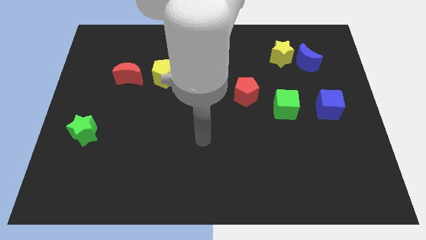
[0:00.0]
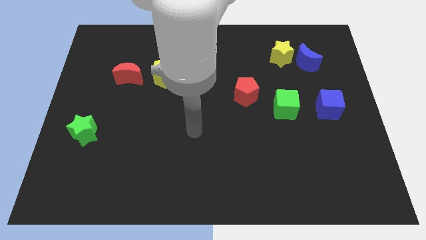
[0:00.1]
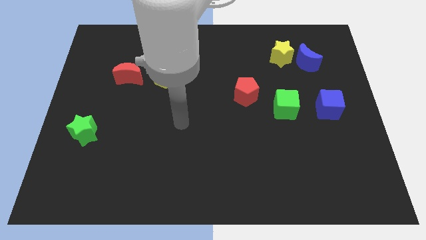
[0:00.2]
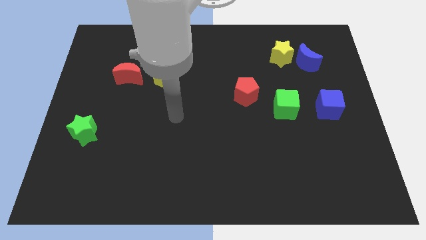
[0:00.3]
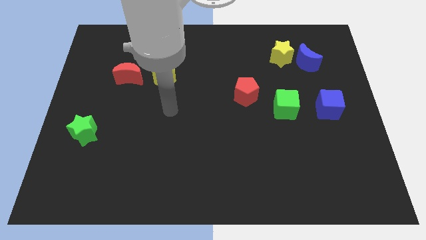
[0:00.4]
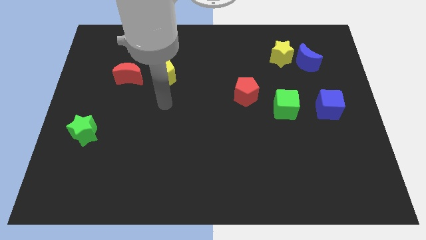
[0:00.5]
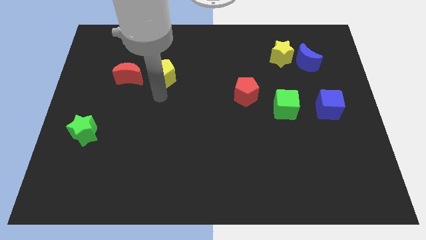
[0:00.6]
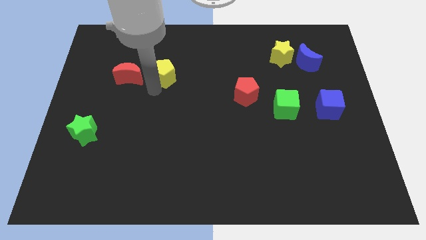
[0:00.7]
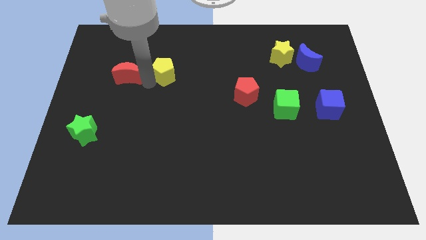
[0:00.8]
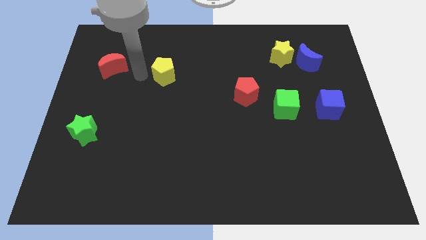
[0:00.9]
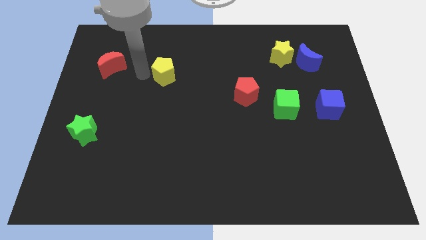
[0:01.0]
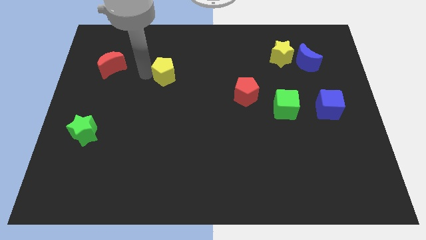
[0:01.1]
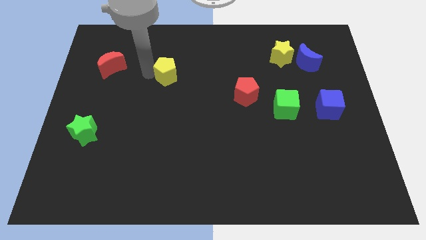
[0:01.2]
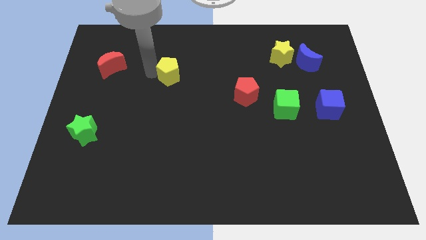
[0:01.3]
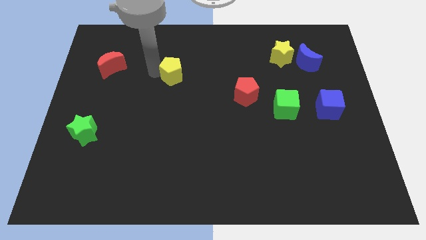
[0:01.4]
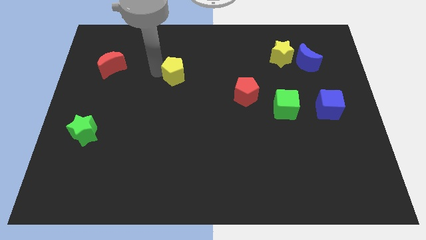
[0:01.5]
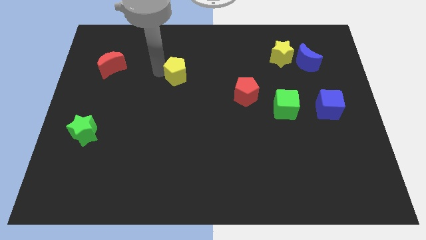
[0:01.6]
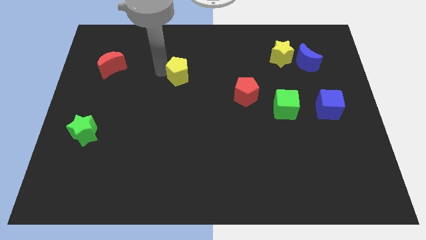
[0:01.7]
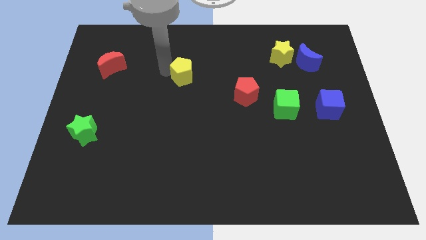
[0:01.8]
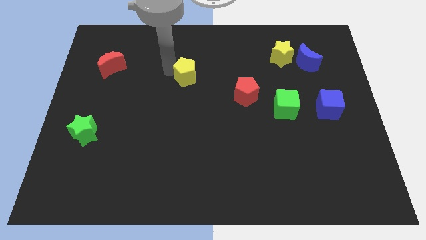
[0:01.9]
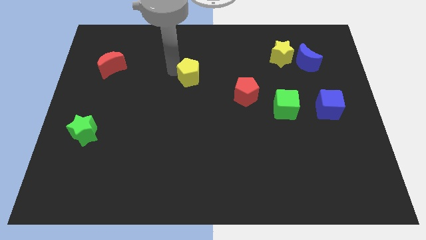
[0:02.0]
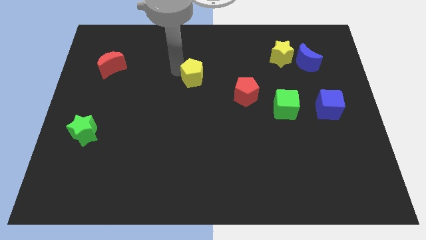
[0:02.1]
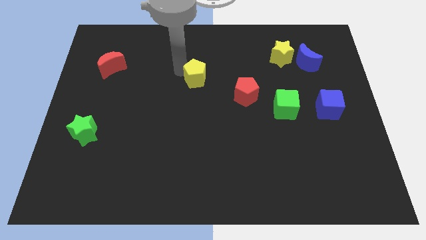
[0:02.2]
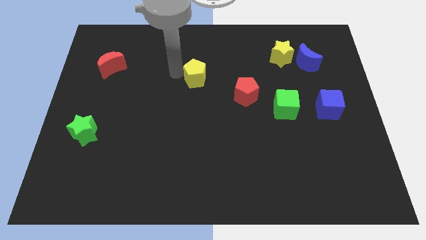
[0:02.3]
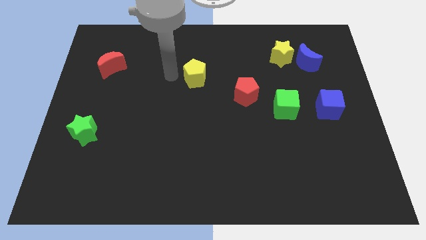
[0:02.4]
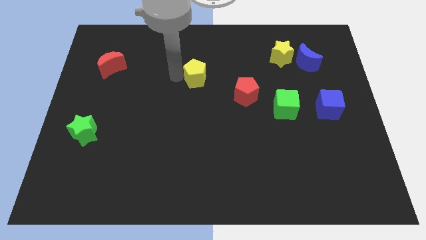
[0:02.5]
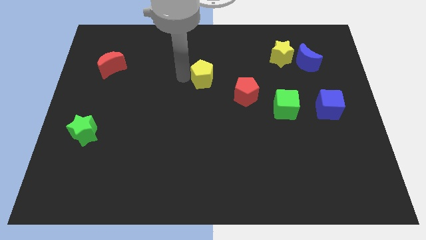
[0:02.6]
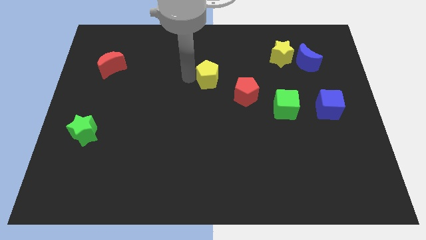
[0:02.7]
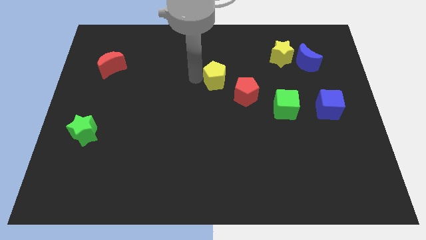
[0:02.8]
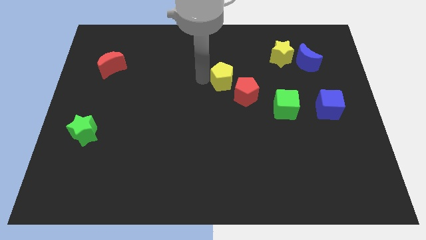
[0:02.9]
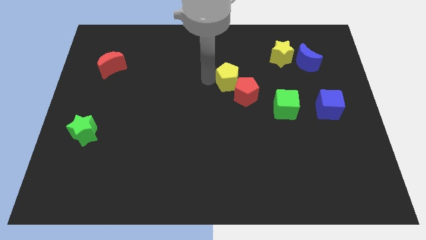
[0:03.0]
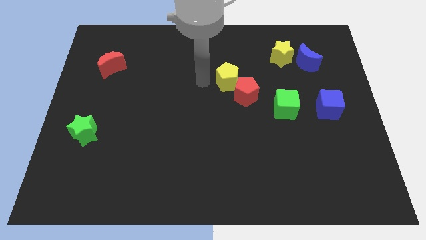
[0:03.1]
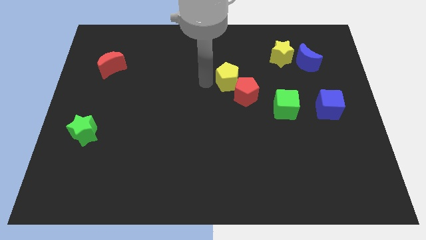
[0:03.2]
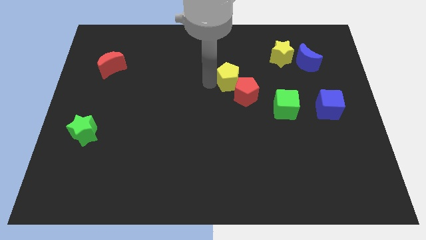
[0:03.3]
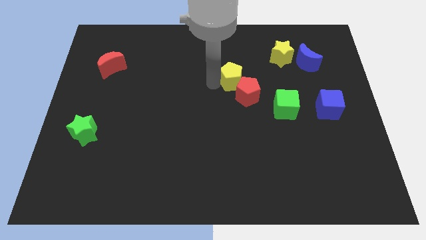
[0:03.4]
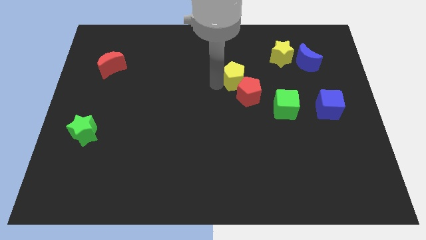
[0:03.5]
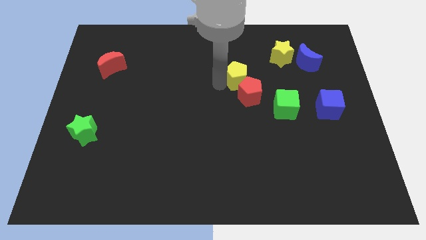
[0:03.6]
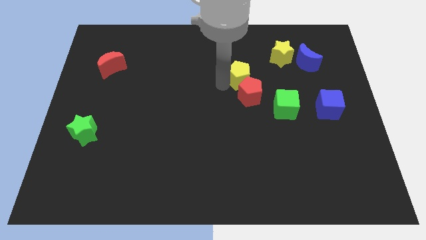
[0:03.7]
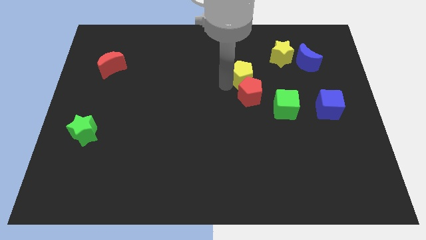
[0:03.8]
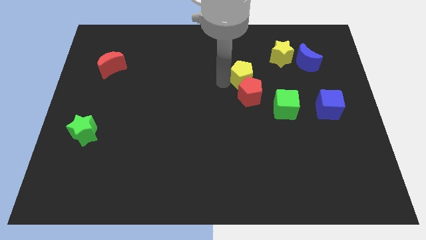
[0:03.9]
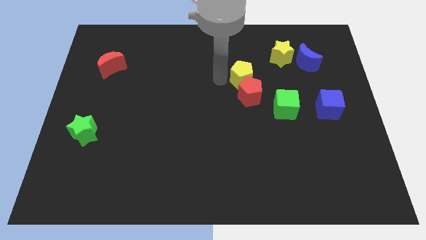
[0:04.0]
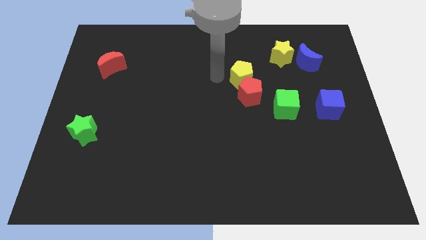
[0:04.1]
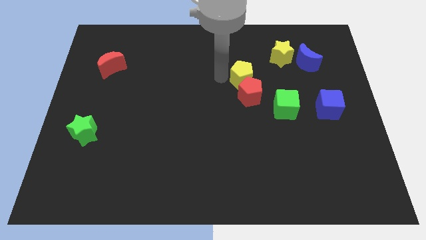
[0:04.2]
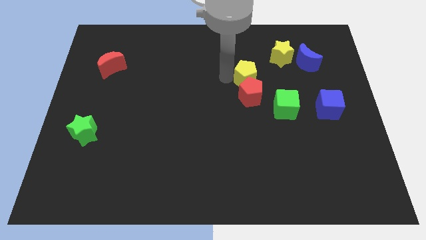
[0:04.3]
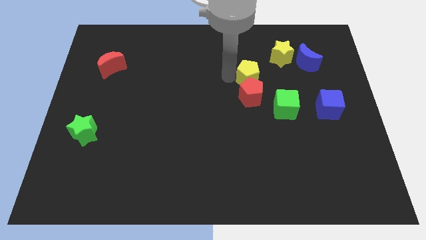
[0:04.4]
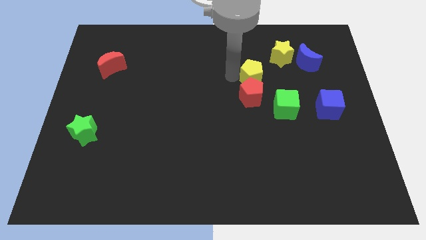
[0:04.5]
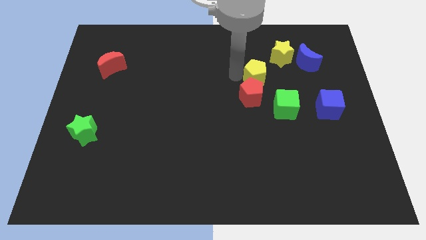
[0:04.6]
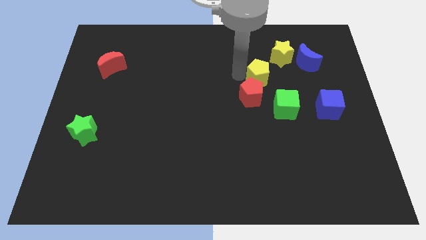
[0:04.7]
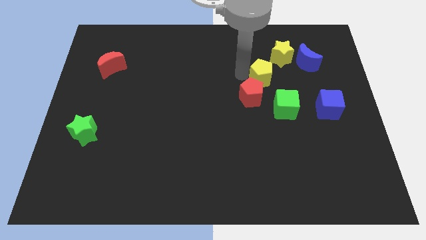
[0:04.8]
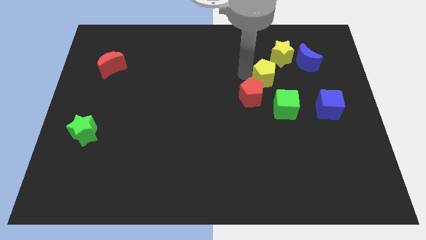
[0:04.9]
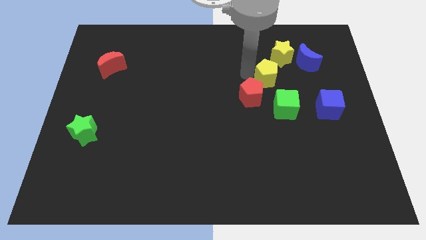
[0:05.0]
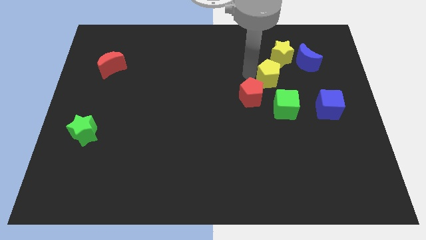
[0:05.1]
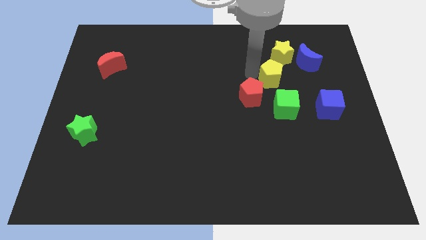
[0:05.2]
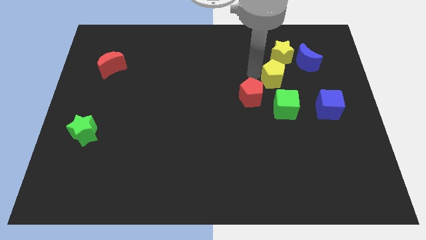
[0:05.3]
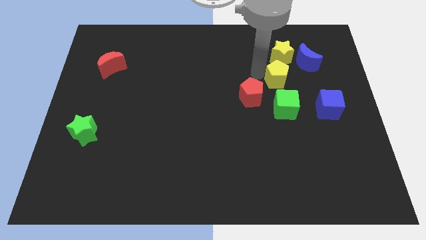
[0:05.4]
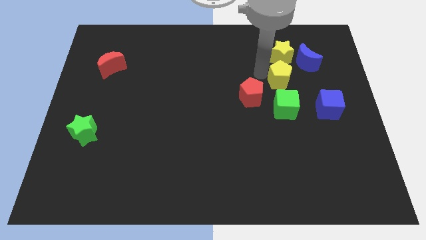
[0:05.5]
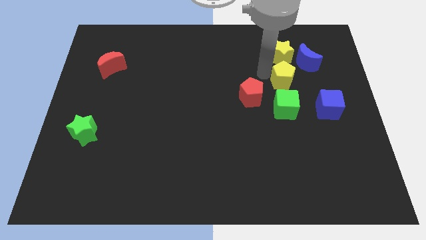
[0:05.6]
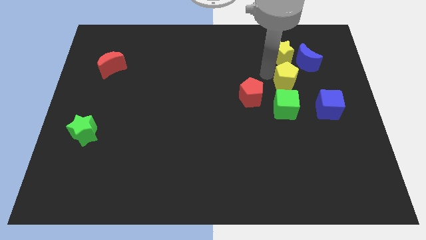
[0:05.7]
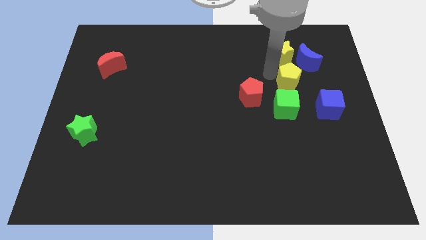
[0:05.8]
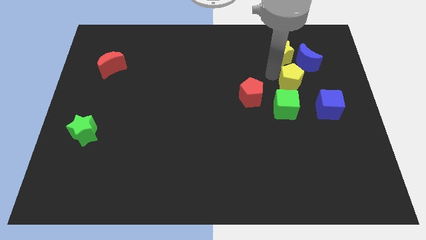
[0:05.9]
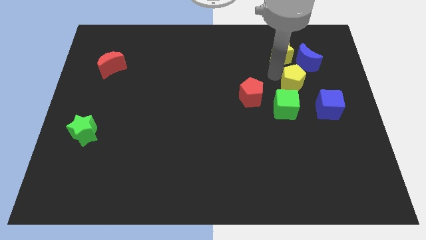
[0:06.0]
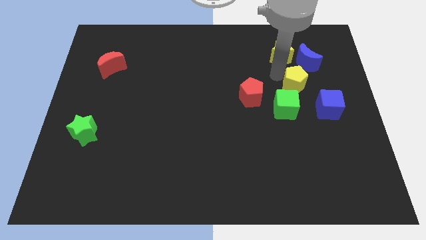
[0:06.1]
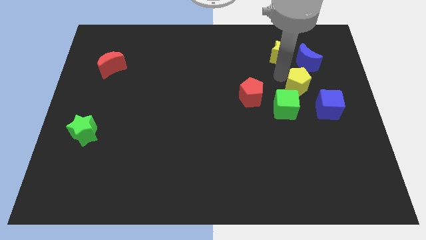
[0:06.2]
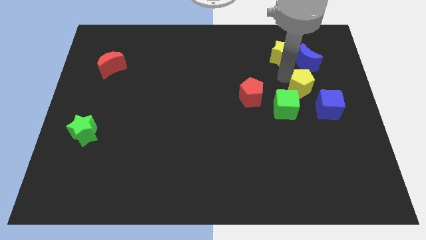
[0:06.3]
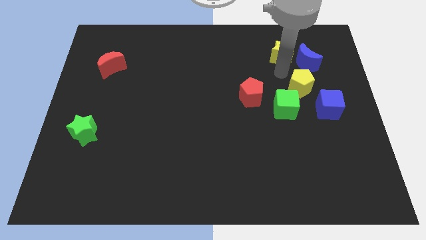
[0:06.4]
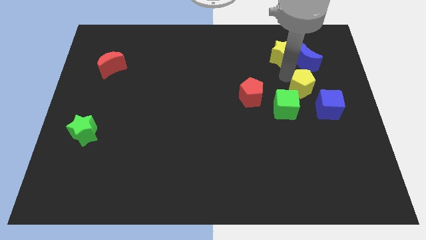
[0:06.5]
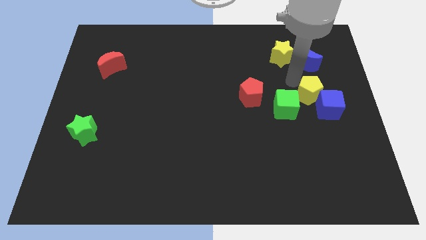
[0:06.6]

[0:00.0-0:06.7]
slide the yellow pentagon next to the blue cube

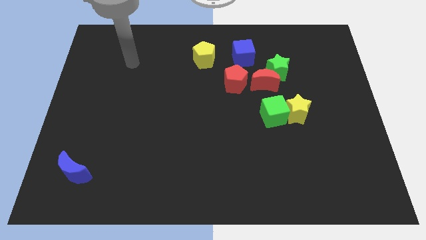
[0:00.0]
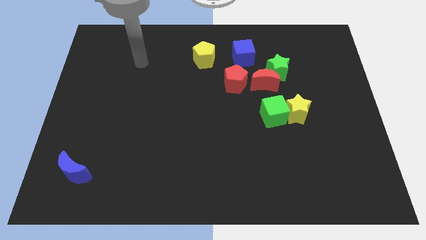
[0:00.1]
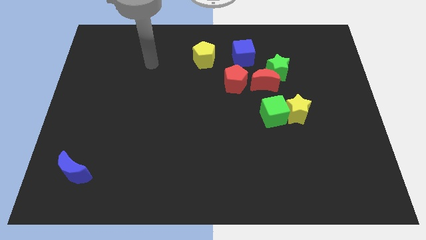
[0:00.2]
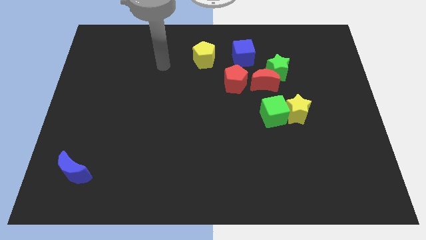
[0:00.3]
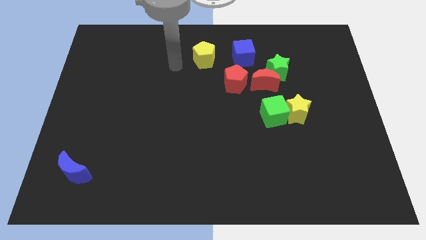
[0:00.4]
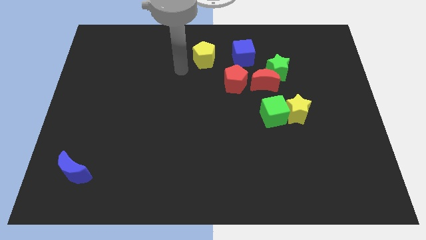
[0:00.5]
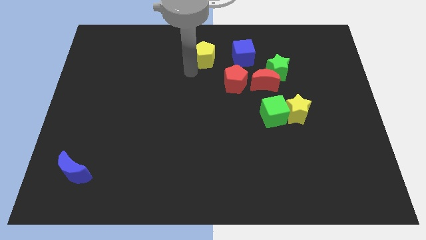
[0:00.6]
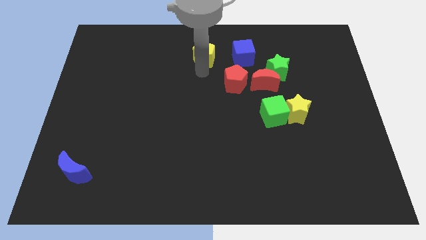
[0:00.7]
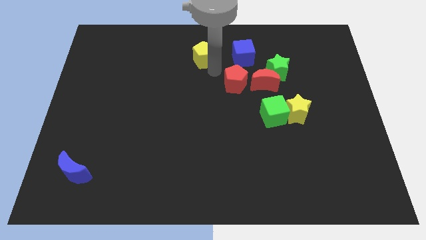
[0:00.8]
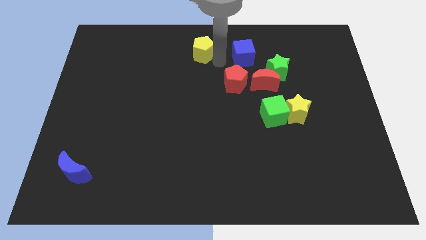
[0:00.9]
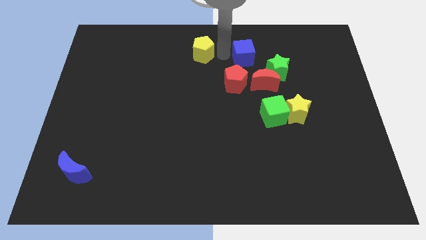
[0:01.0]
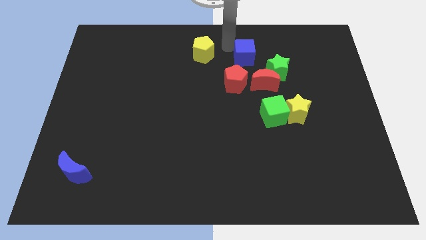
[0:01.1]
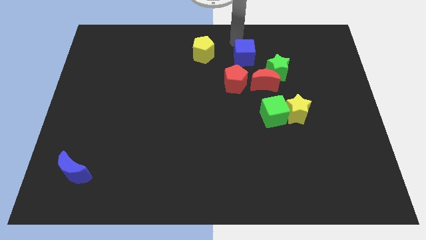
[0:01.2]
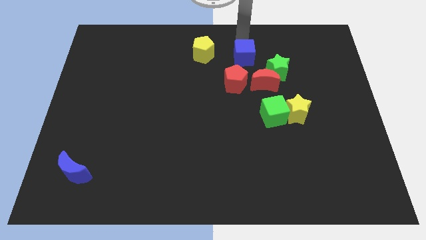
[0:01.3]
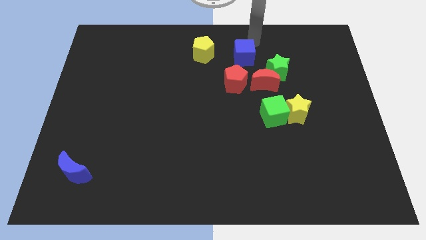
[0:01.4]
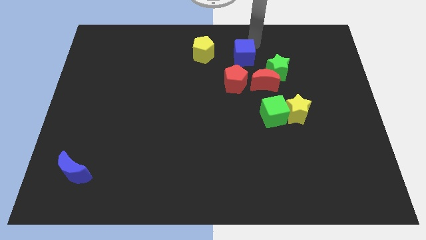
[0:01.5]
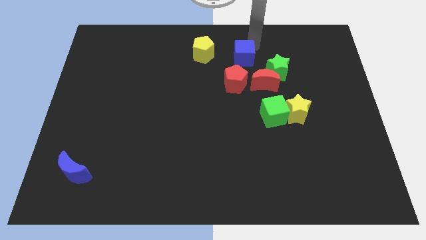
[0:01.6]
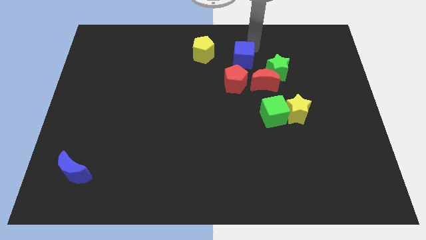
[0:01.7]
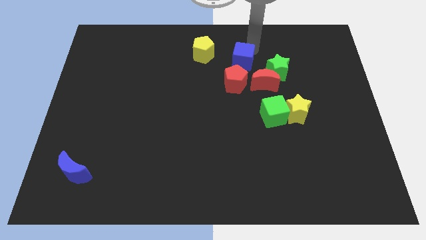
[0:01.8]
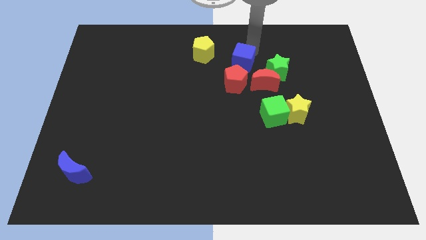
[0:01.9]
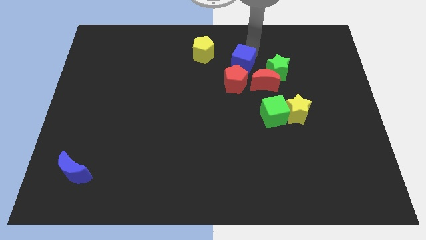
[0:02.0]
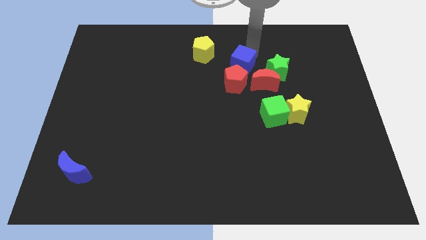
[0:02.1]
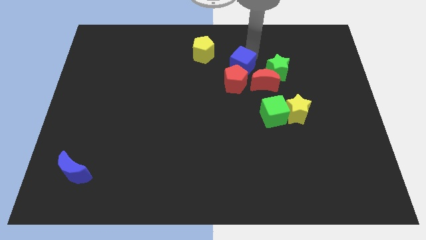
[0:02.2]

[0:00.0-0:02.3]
slide the blue cube close to the red pentagon
